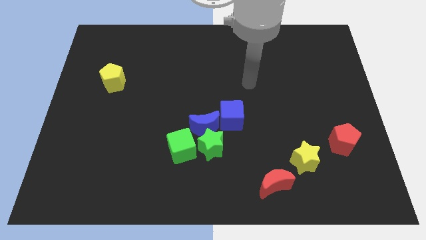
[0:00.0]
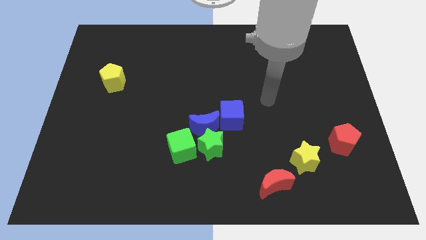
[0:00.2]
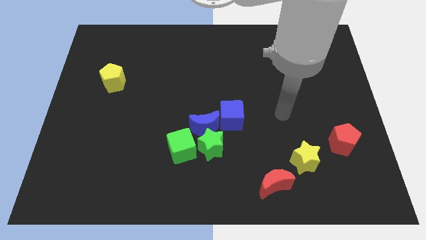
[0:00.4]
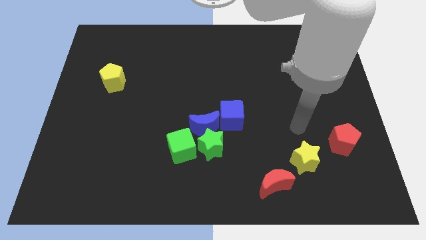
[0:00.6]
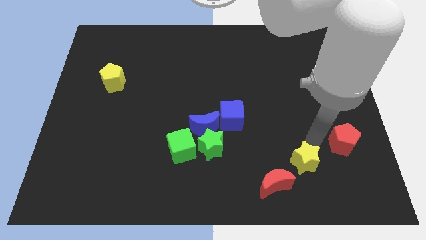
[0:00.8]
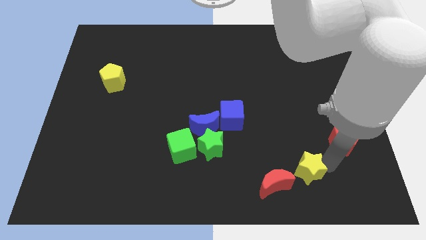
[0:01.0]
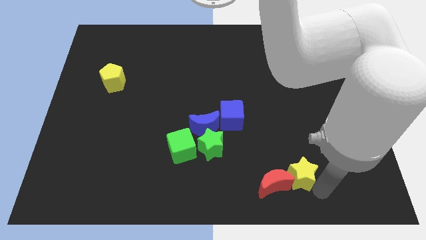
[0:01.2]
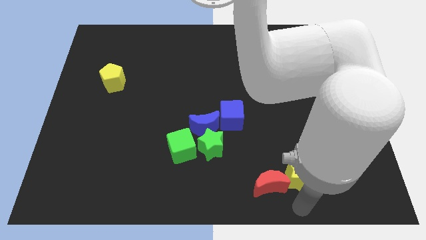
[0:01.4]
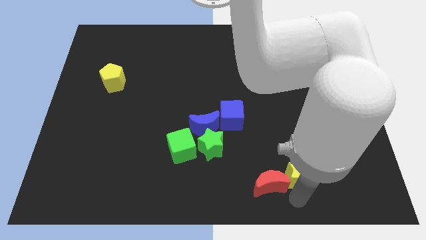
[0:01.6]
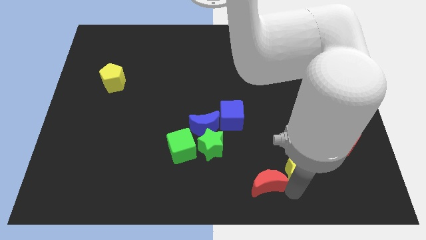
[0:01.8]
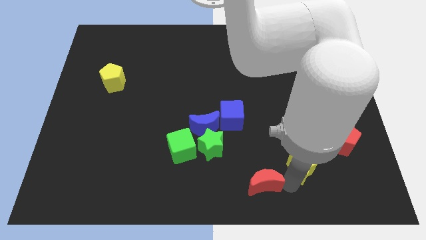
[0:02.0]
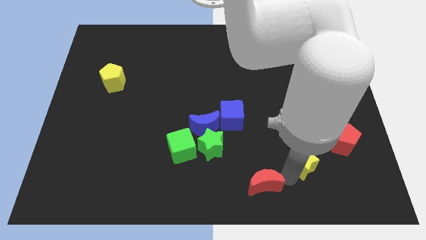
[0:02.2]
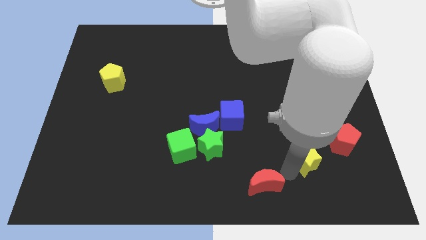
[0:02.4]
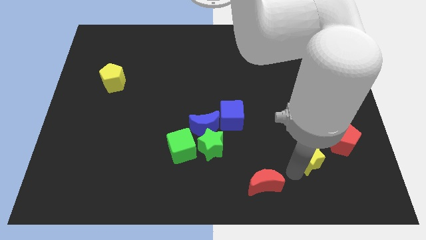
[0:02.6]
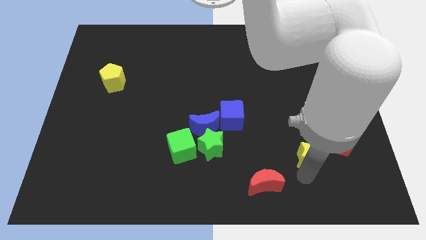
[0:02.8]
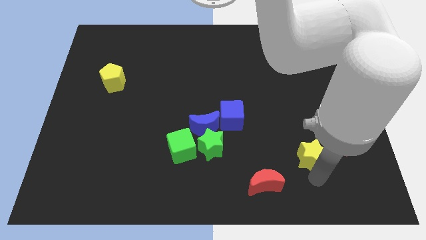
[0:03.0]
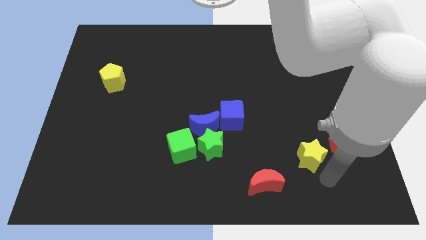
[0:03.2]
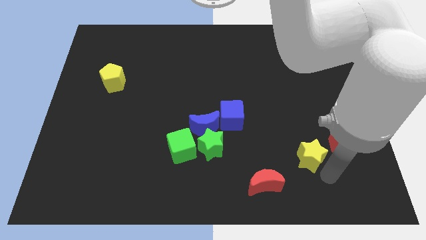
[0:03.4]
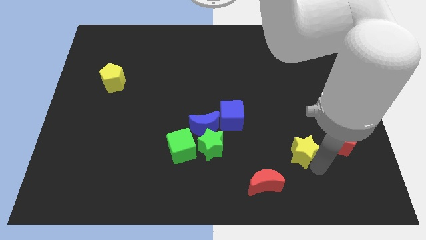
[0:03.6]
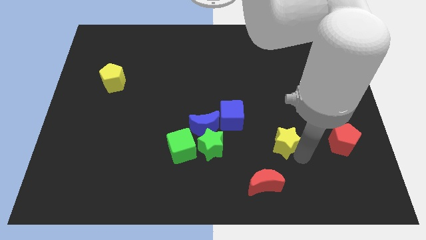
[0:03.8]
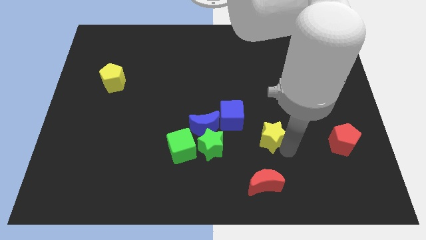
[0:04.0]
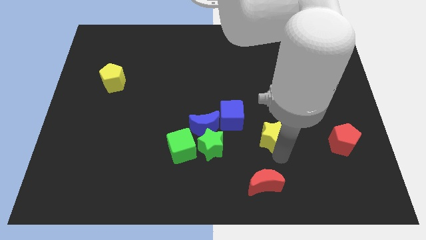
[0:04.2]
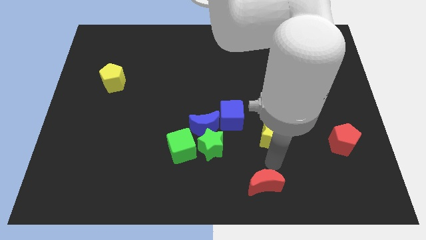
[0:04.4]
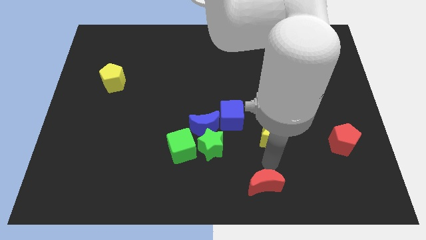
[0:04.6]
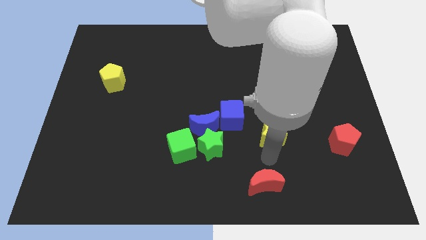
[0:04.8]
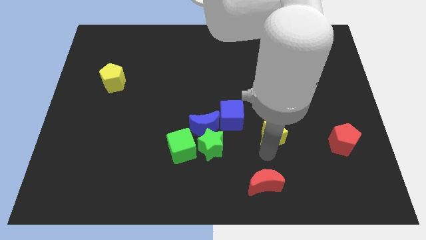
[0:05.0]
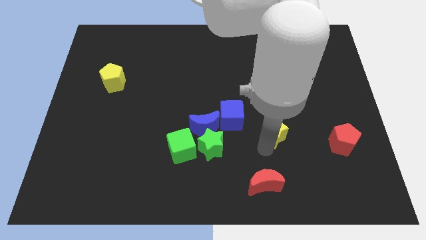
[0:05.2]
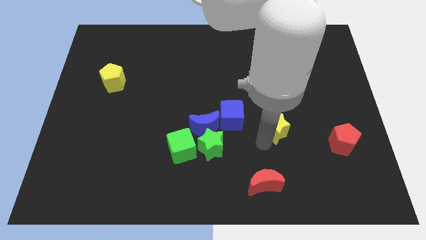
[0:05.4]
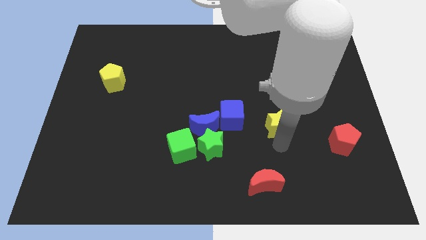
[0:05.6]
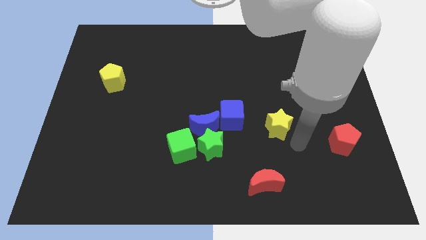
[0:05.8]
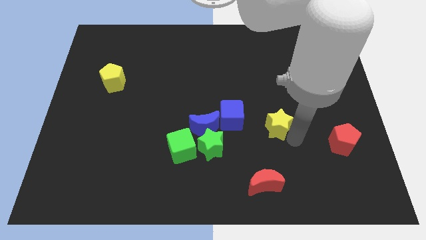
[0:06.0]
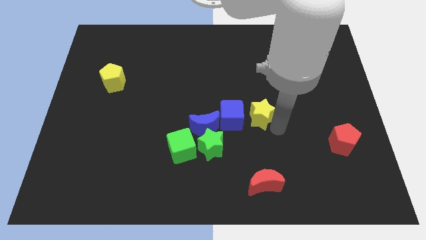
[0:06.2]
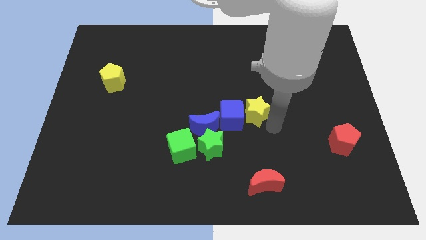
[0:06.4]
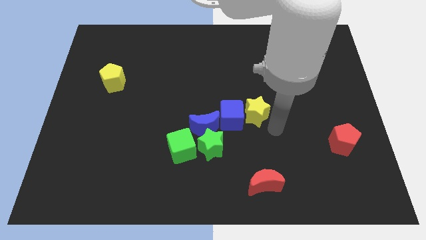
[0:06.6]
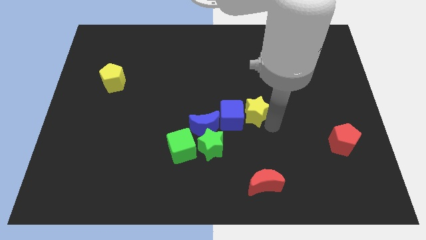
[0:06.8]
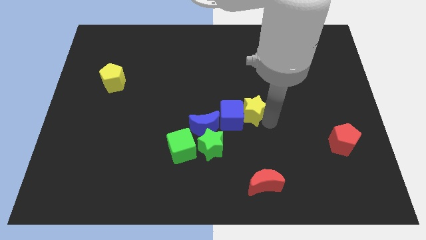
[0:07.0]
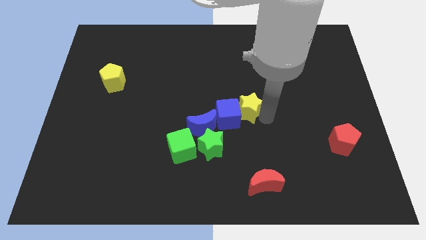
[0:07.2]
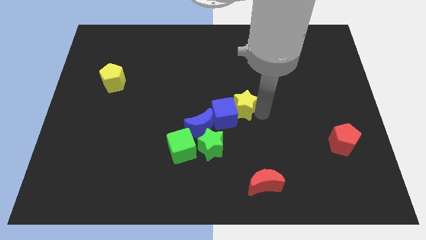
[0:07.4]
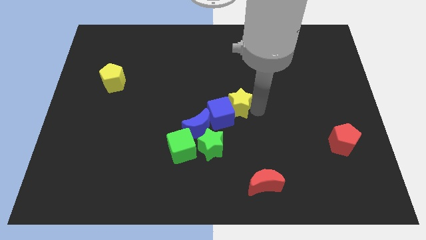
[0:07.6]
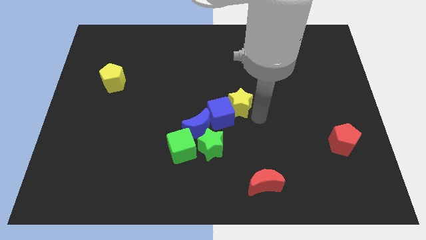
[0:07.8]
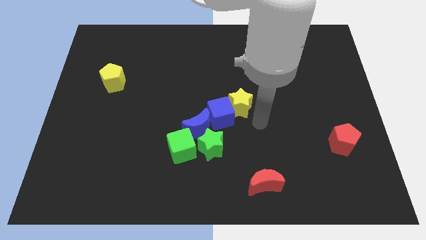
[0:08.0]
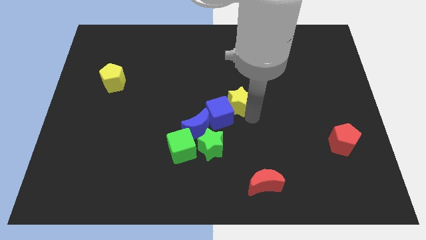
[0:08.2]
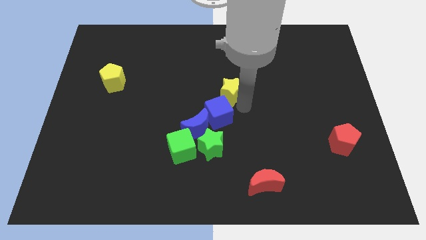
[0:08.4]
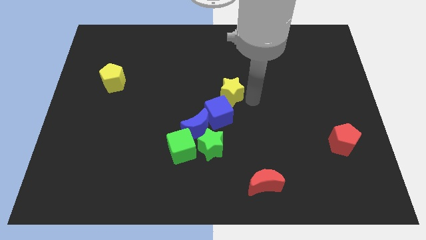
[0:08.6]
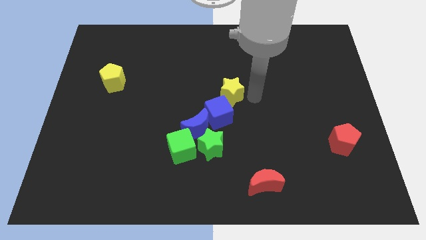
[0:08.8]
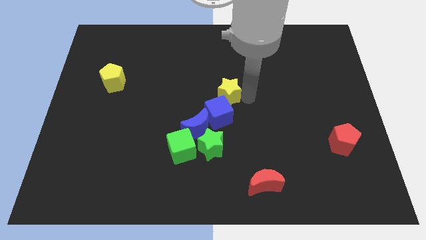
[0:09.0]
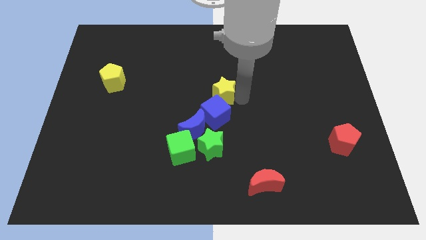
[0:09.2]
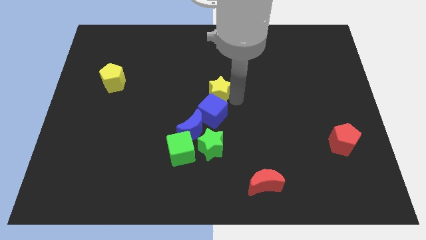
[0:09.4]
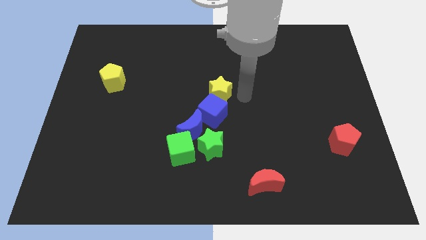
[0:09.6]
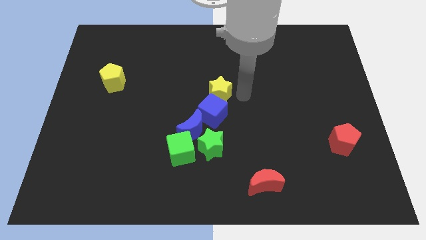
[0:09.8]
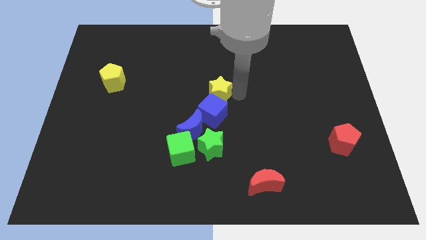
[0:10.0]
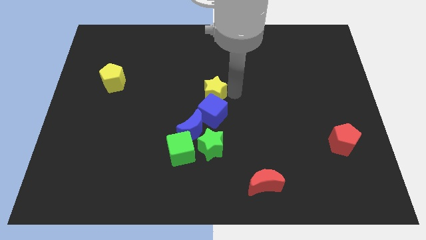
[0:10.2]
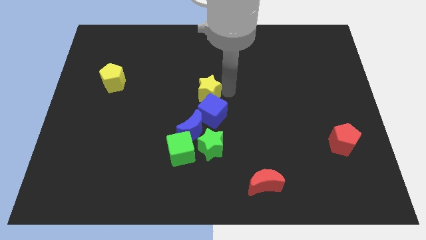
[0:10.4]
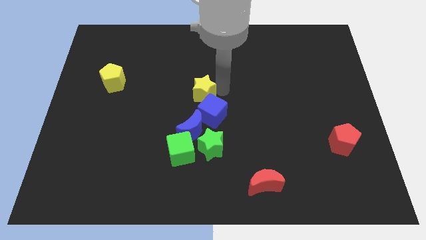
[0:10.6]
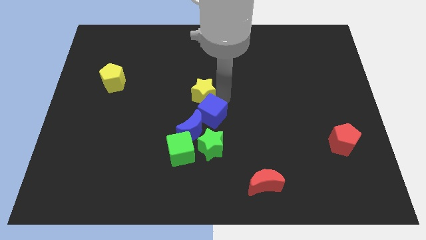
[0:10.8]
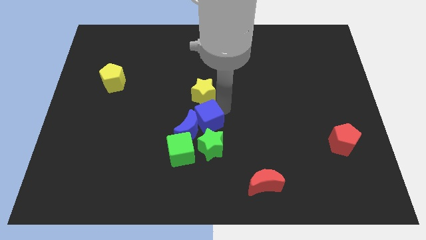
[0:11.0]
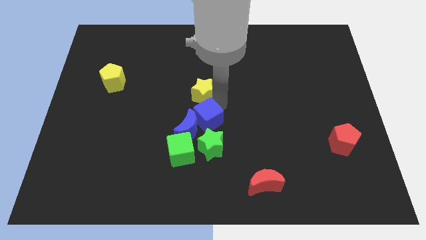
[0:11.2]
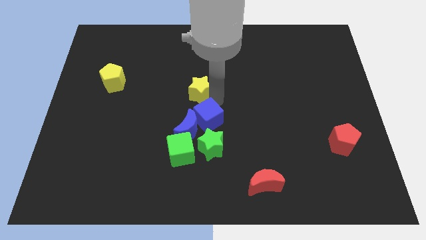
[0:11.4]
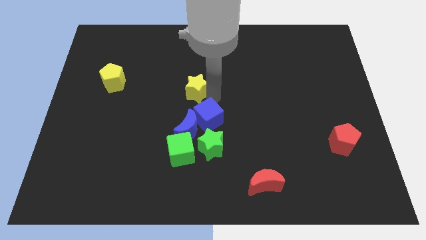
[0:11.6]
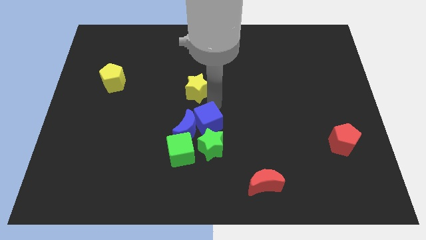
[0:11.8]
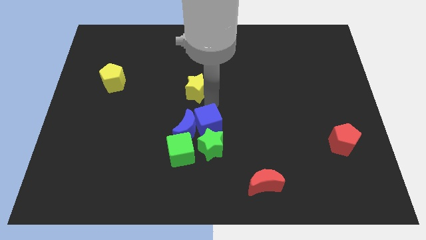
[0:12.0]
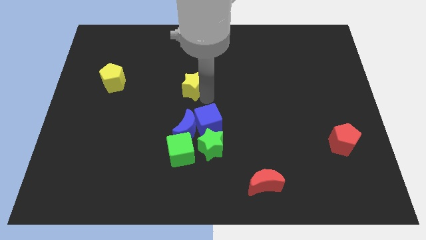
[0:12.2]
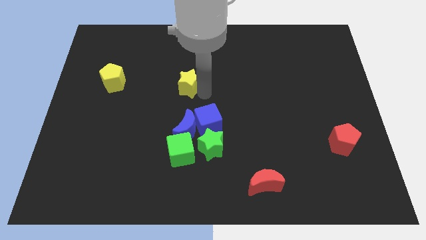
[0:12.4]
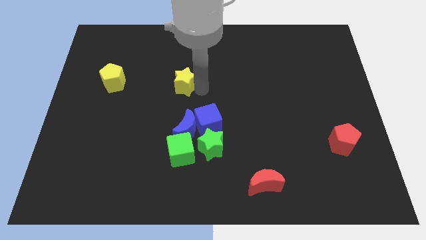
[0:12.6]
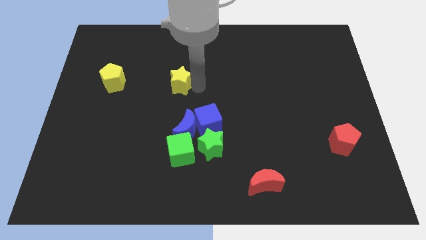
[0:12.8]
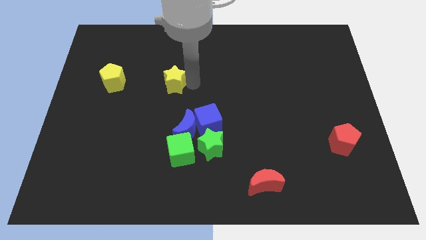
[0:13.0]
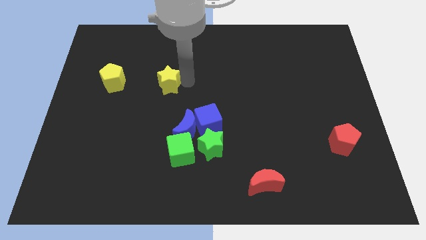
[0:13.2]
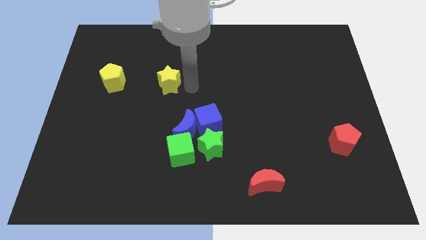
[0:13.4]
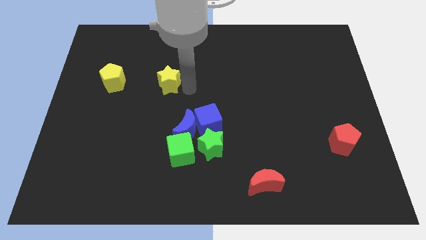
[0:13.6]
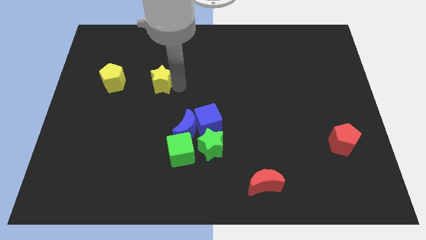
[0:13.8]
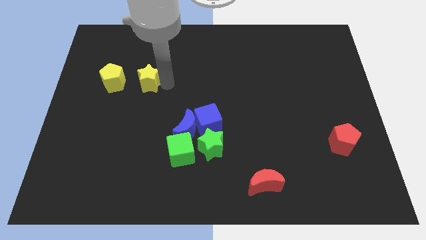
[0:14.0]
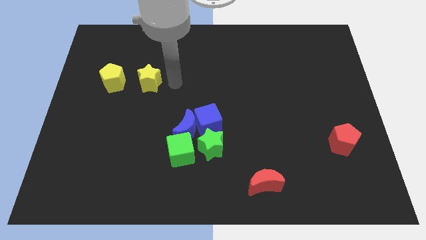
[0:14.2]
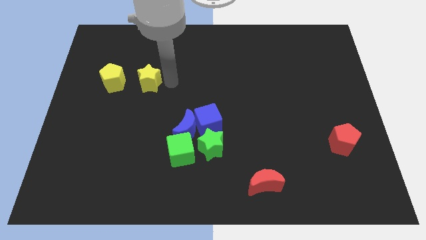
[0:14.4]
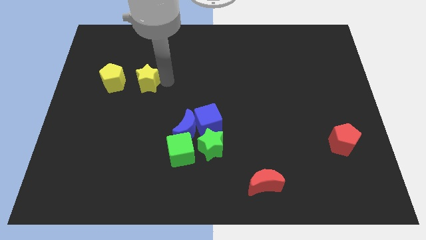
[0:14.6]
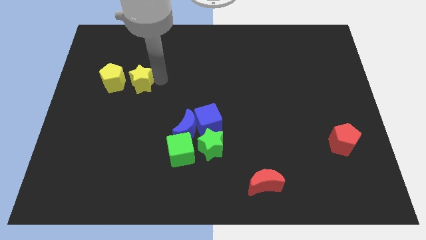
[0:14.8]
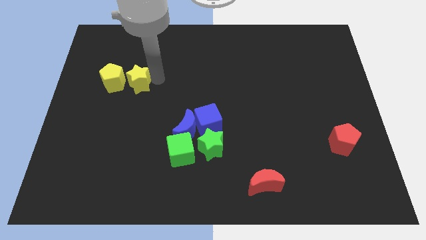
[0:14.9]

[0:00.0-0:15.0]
move the yellow star to the yellow pentagon
